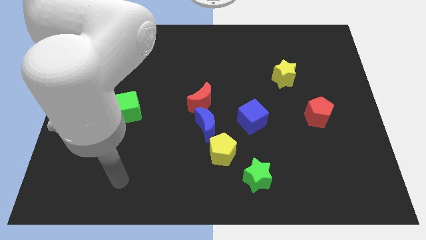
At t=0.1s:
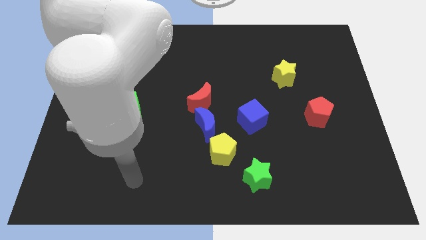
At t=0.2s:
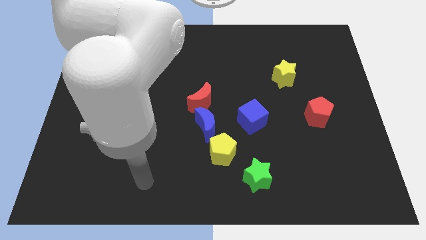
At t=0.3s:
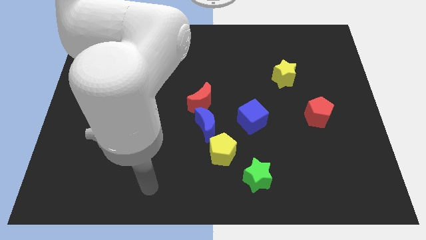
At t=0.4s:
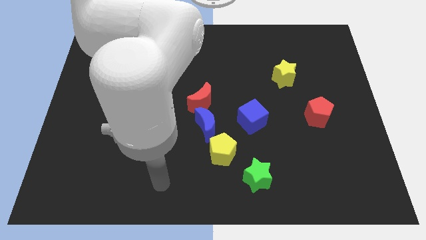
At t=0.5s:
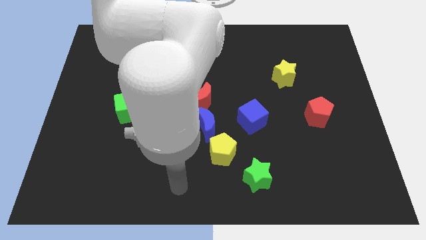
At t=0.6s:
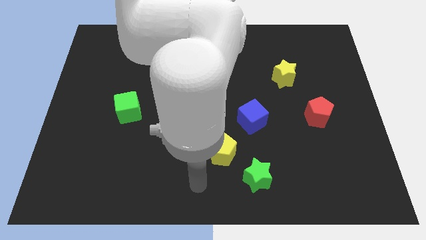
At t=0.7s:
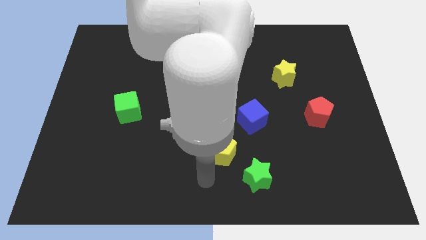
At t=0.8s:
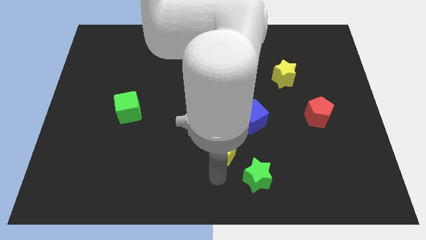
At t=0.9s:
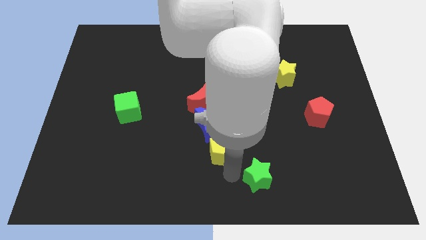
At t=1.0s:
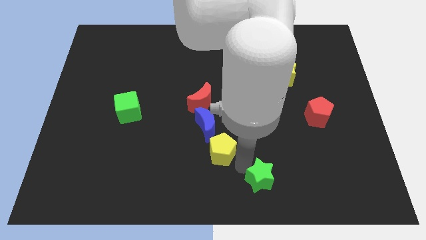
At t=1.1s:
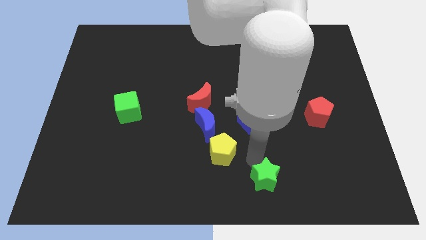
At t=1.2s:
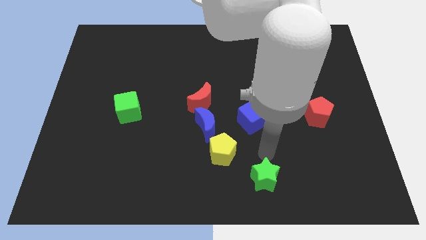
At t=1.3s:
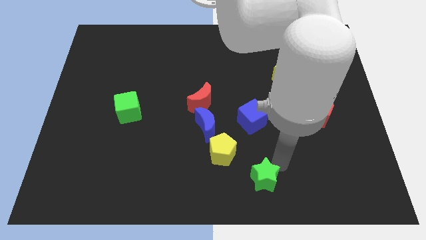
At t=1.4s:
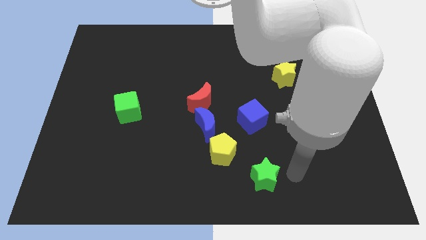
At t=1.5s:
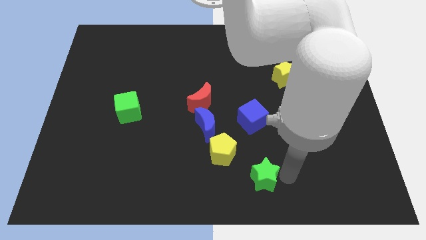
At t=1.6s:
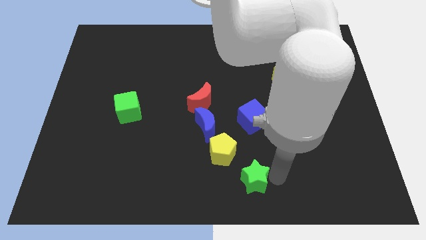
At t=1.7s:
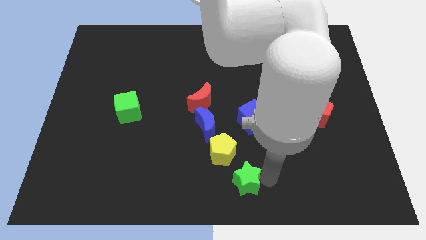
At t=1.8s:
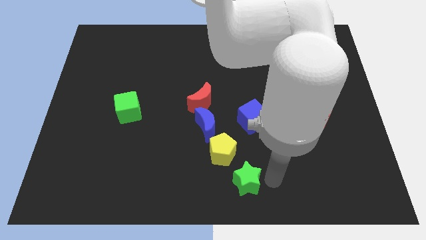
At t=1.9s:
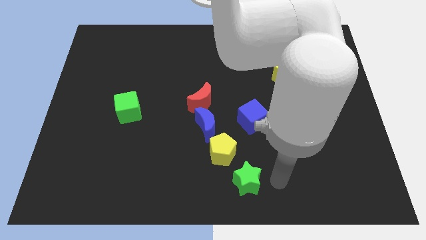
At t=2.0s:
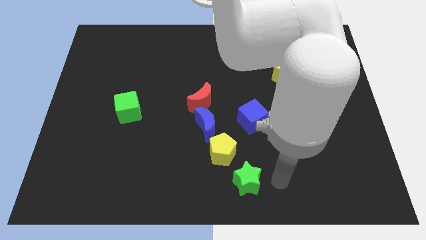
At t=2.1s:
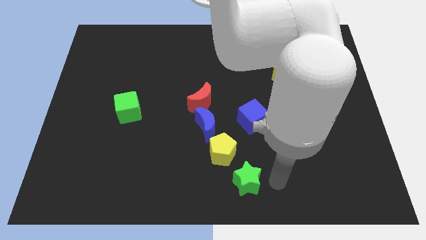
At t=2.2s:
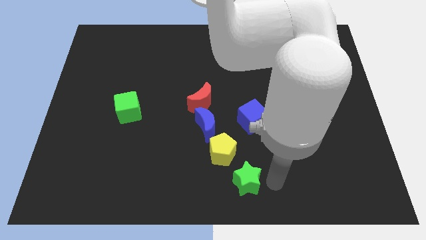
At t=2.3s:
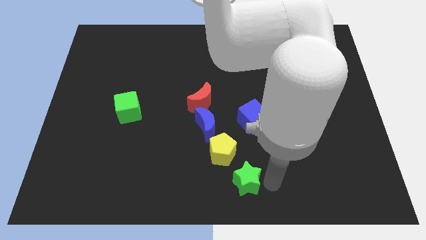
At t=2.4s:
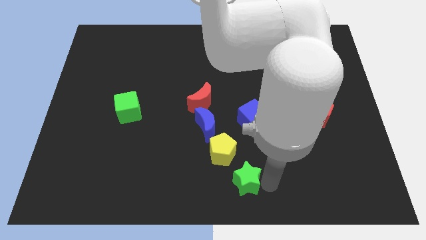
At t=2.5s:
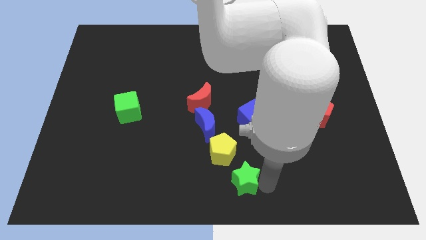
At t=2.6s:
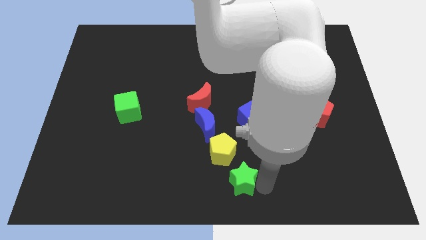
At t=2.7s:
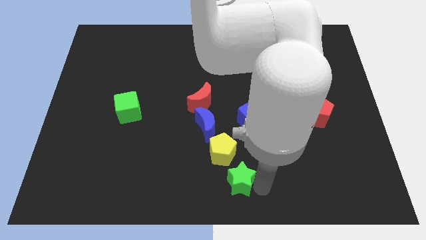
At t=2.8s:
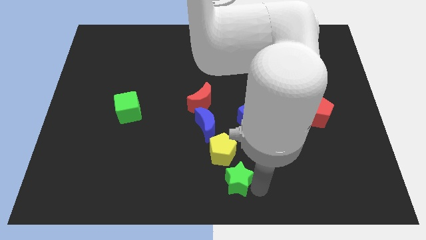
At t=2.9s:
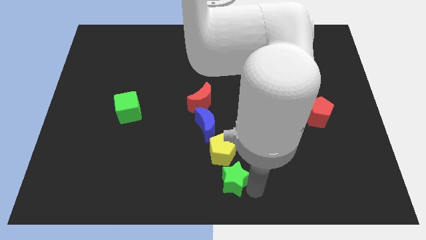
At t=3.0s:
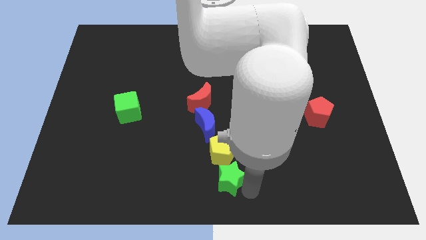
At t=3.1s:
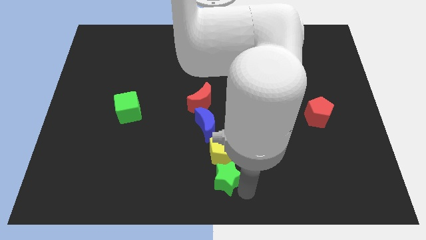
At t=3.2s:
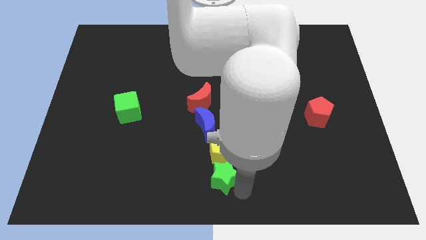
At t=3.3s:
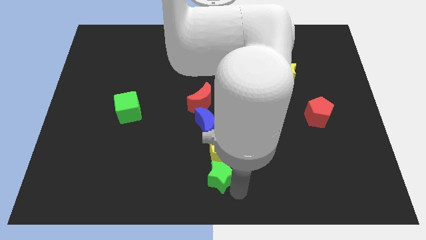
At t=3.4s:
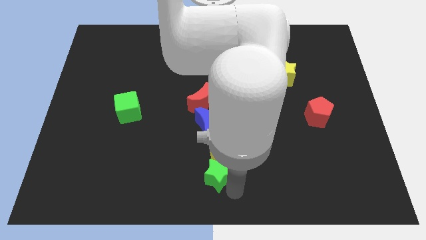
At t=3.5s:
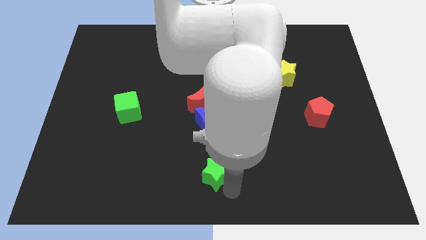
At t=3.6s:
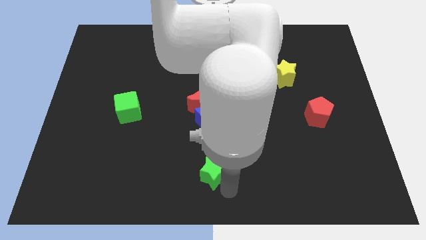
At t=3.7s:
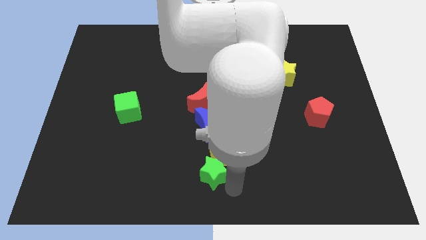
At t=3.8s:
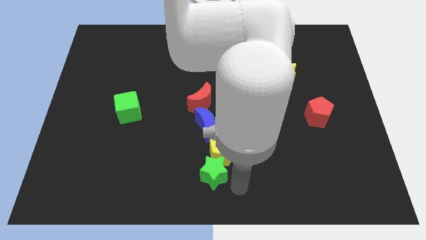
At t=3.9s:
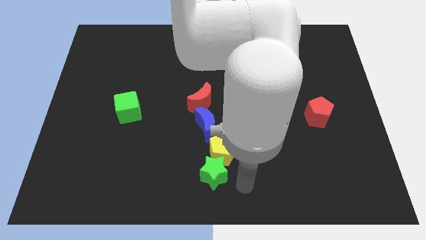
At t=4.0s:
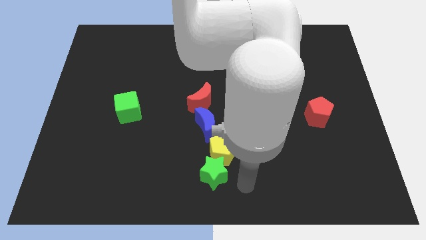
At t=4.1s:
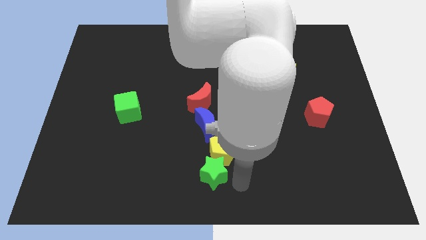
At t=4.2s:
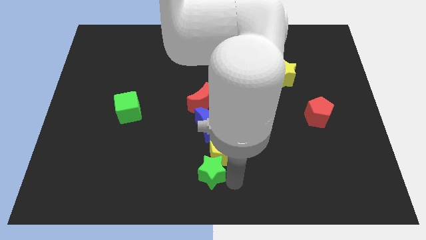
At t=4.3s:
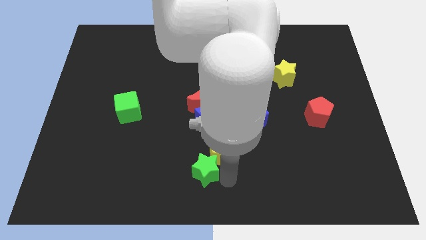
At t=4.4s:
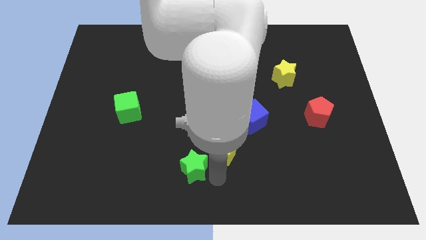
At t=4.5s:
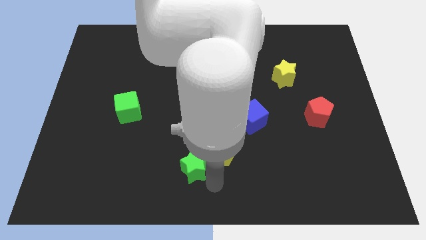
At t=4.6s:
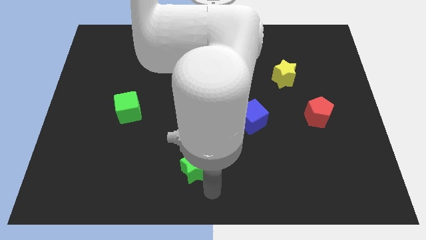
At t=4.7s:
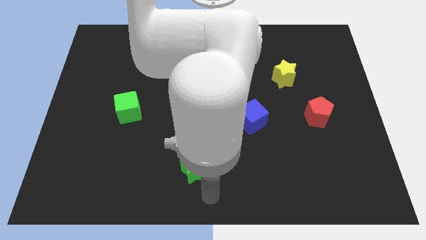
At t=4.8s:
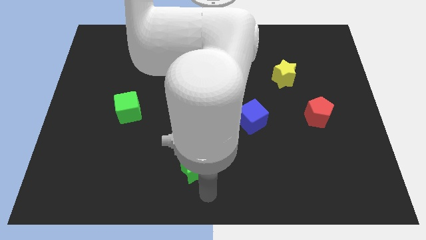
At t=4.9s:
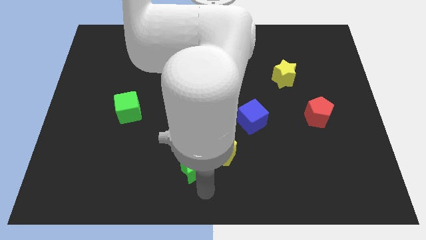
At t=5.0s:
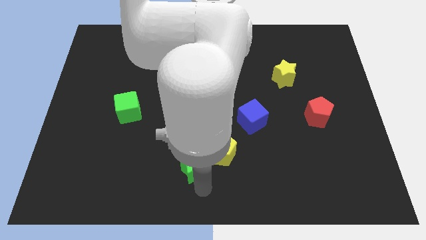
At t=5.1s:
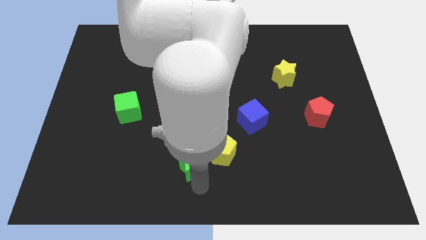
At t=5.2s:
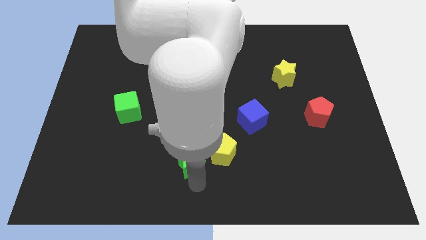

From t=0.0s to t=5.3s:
move the green star diagonally down and to the left of the blue moon

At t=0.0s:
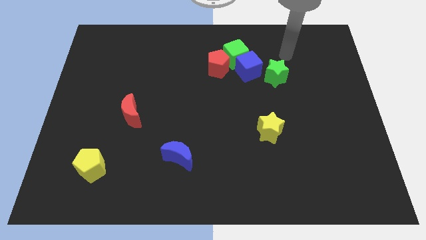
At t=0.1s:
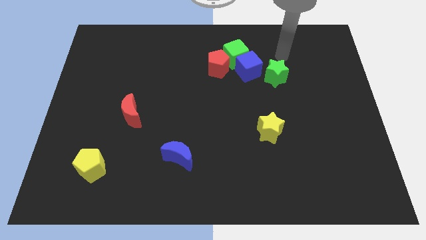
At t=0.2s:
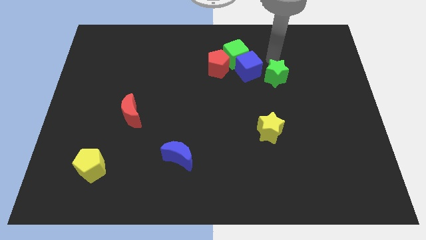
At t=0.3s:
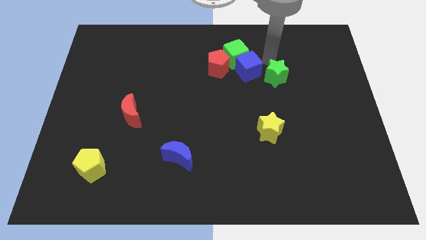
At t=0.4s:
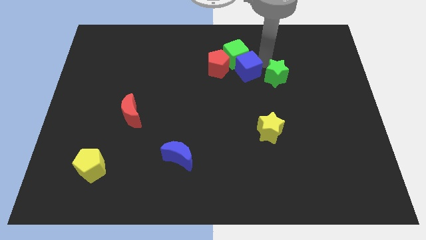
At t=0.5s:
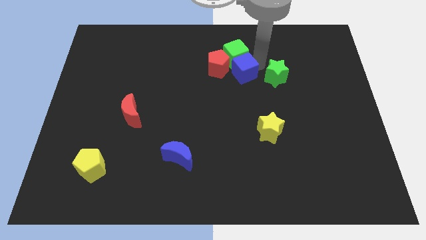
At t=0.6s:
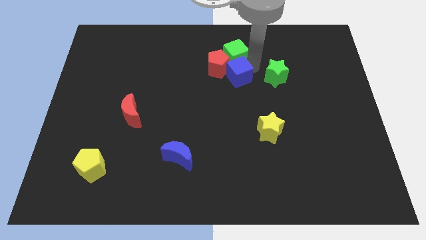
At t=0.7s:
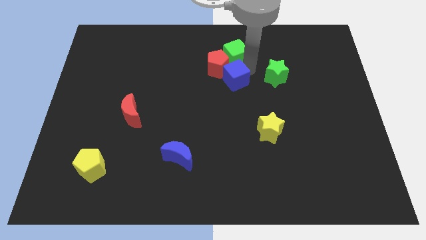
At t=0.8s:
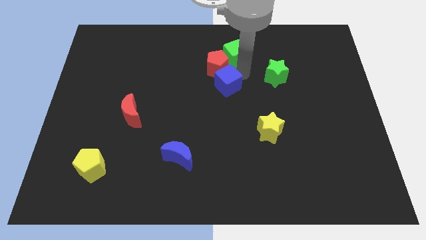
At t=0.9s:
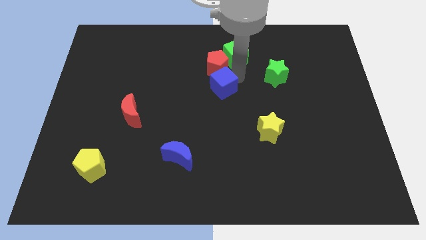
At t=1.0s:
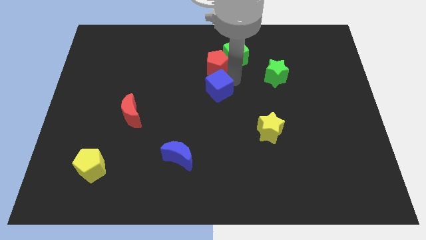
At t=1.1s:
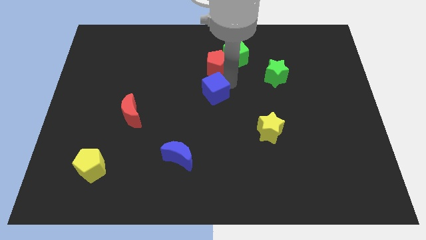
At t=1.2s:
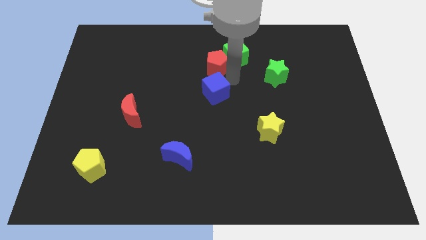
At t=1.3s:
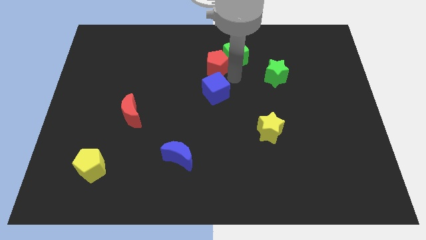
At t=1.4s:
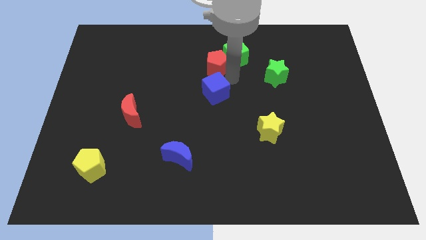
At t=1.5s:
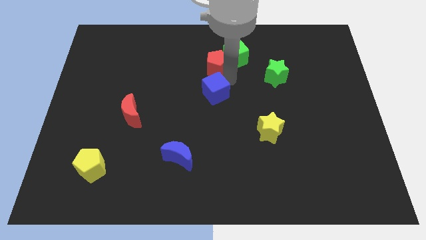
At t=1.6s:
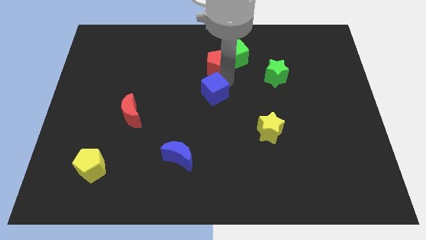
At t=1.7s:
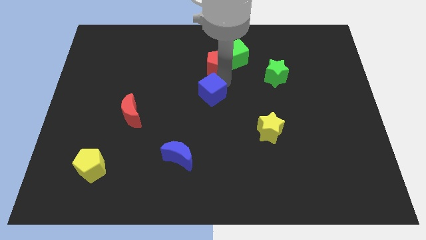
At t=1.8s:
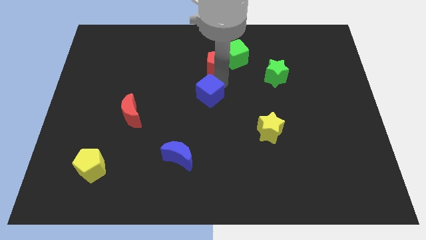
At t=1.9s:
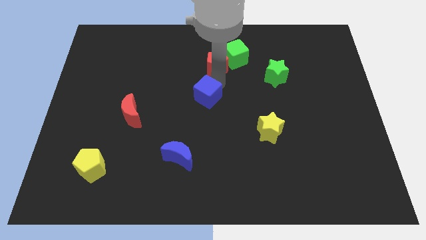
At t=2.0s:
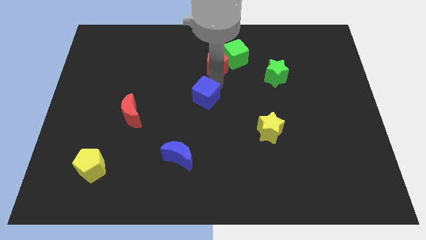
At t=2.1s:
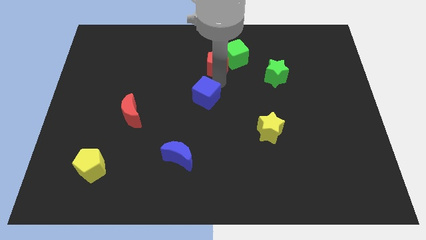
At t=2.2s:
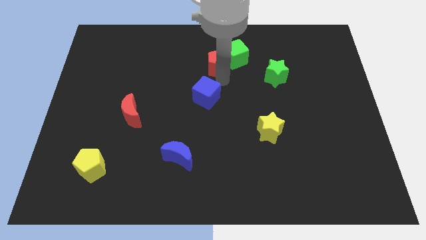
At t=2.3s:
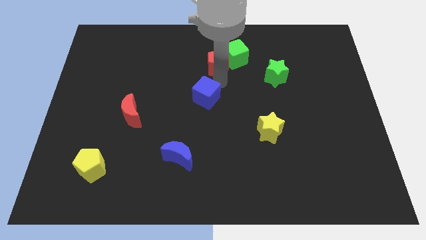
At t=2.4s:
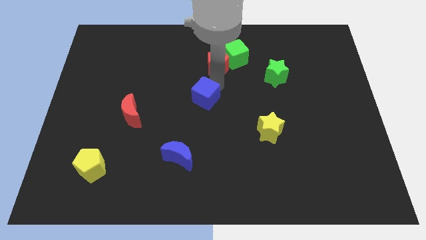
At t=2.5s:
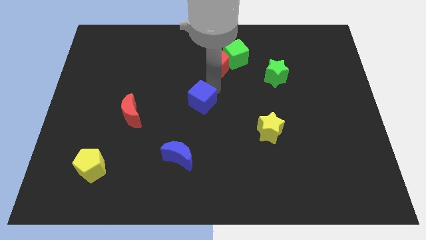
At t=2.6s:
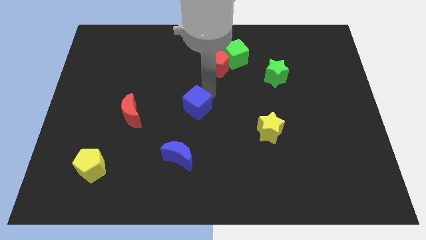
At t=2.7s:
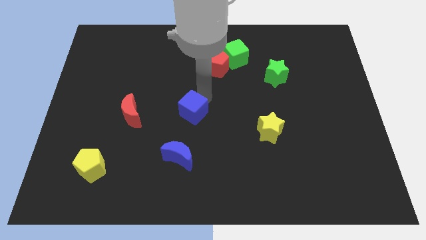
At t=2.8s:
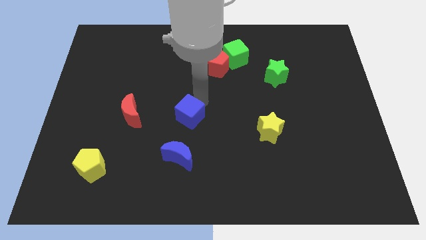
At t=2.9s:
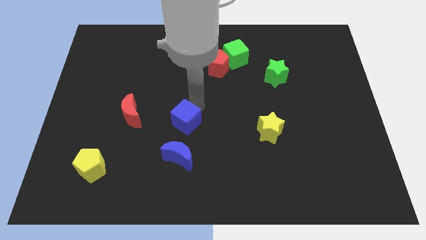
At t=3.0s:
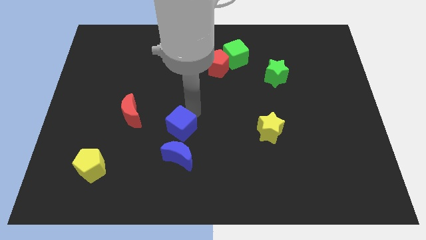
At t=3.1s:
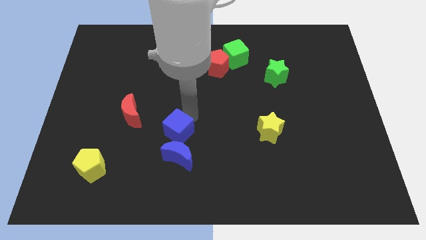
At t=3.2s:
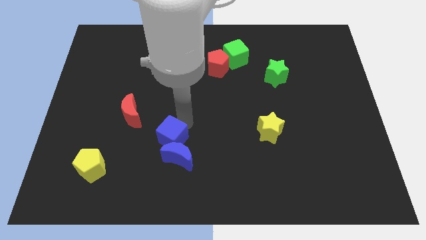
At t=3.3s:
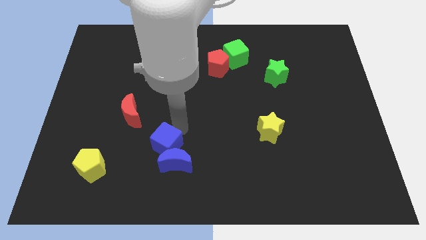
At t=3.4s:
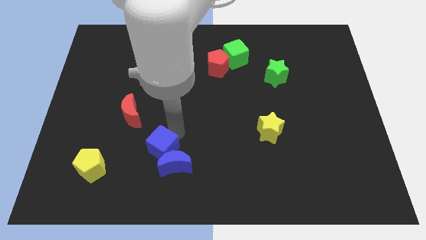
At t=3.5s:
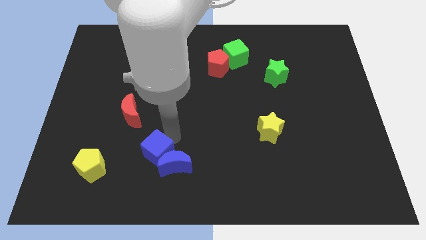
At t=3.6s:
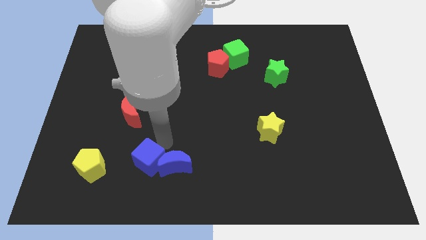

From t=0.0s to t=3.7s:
move the blue cube diagonally down and to the left of the blue moon
